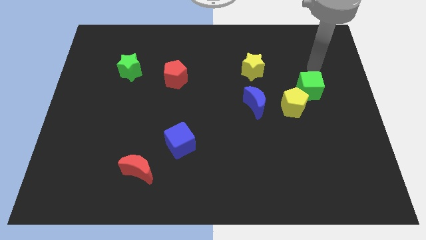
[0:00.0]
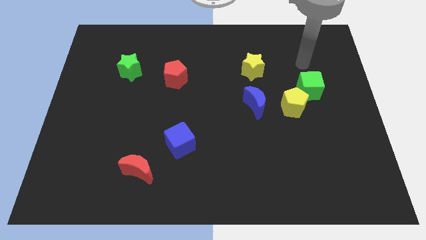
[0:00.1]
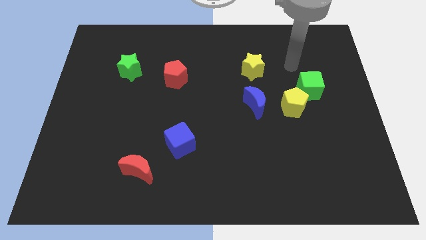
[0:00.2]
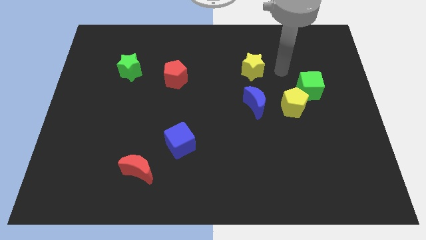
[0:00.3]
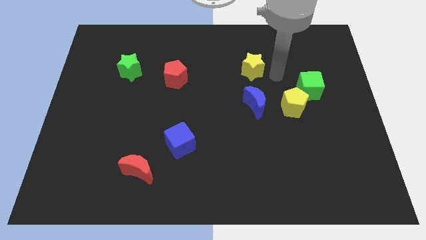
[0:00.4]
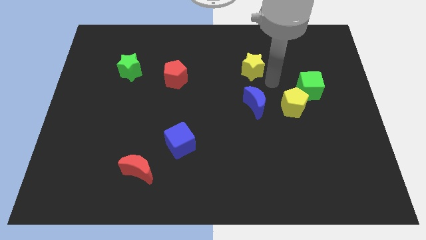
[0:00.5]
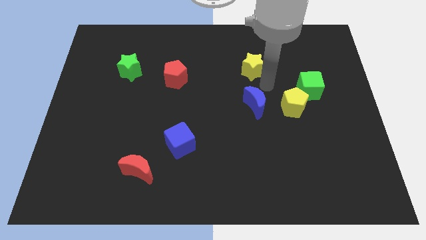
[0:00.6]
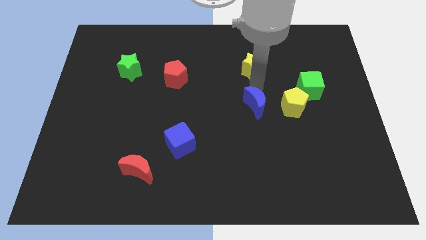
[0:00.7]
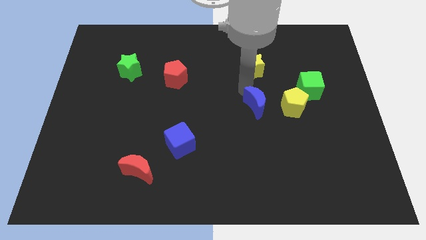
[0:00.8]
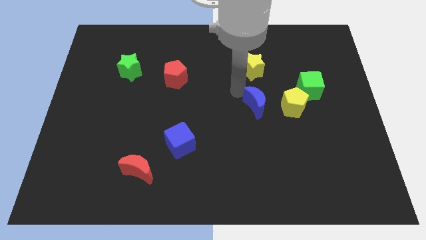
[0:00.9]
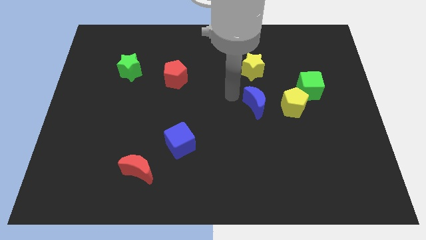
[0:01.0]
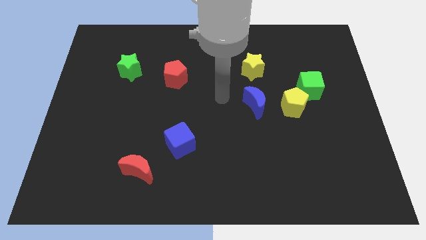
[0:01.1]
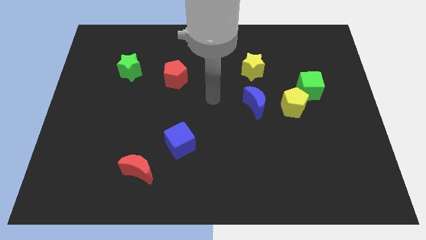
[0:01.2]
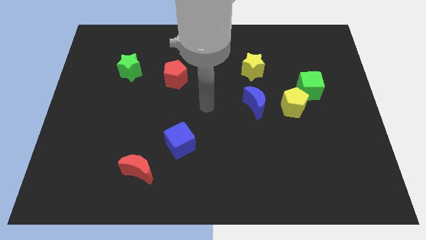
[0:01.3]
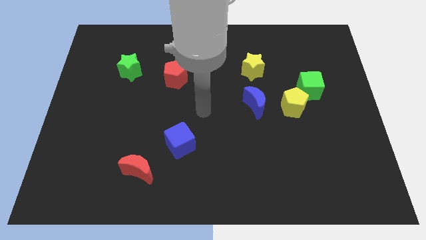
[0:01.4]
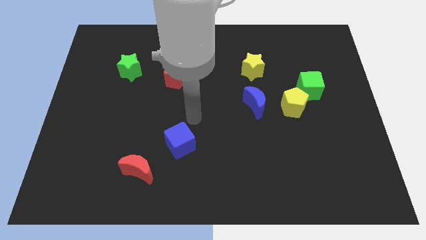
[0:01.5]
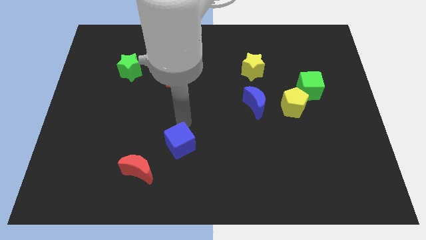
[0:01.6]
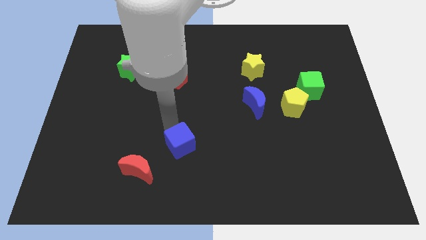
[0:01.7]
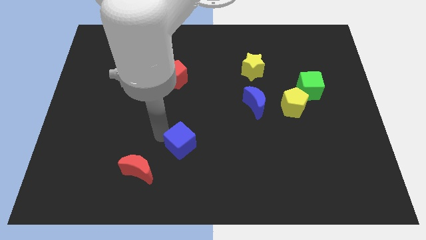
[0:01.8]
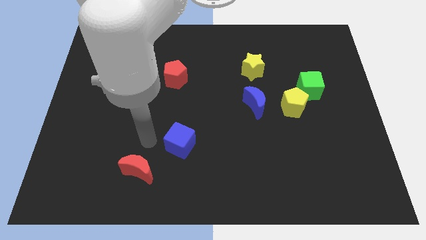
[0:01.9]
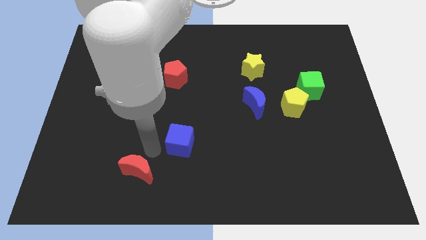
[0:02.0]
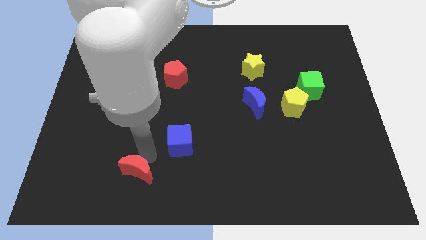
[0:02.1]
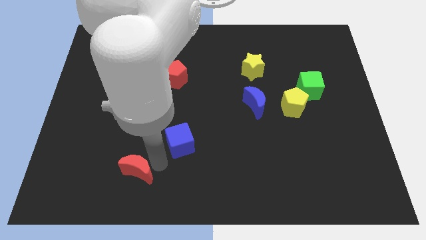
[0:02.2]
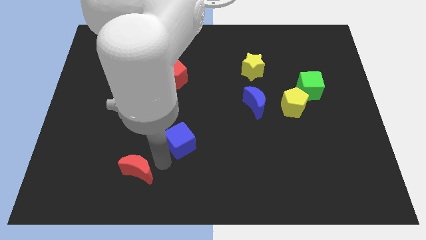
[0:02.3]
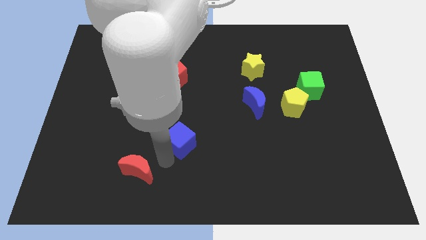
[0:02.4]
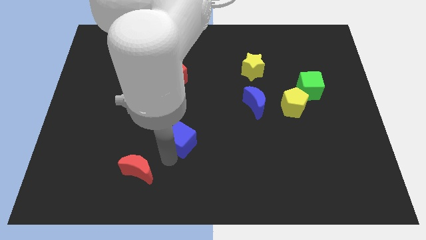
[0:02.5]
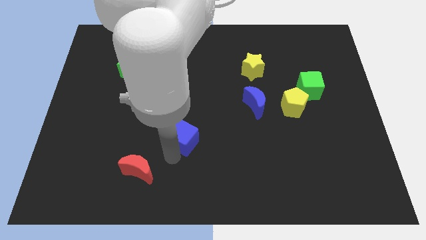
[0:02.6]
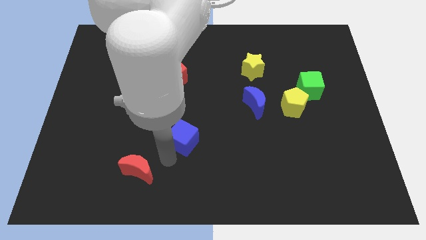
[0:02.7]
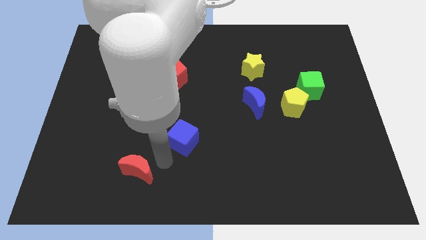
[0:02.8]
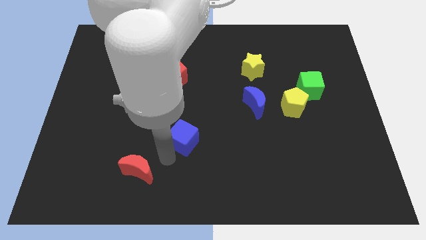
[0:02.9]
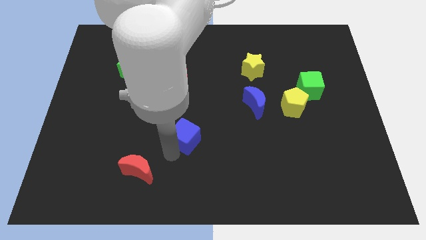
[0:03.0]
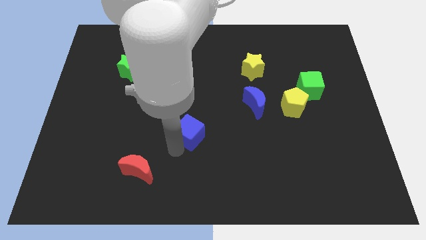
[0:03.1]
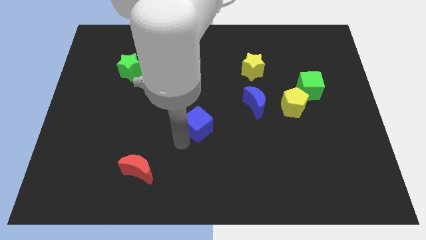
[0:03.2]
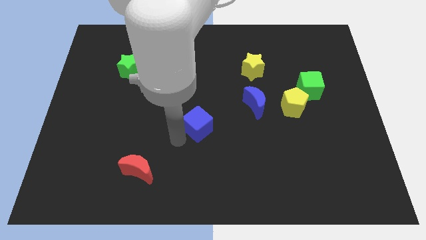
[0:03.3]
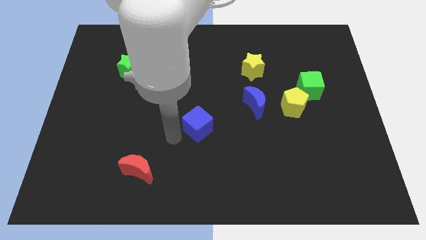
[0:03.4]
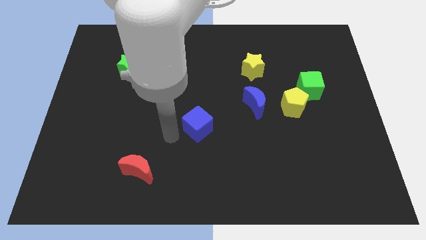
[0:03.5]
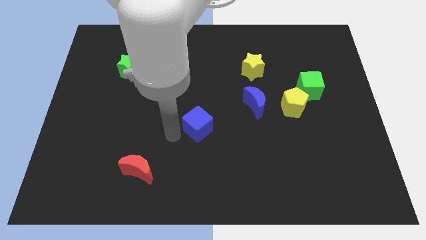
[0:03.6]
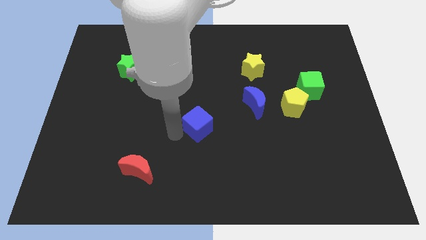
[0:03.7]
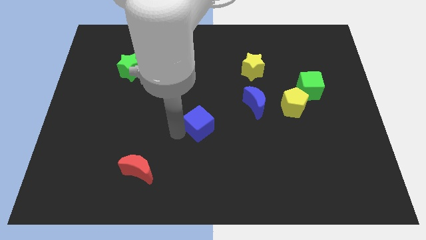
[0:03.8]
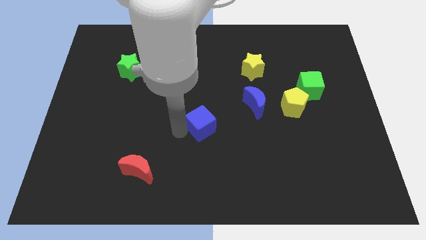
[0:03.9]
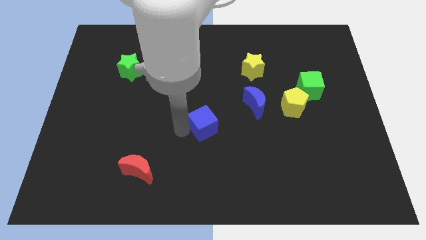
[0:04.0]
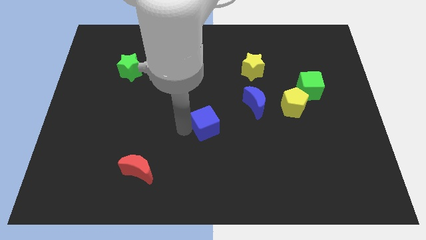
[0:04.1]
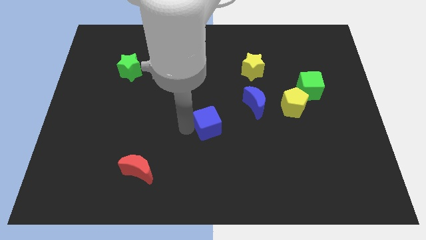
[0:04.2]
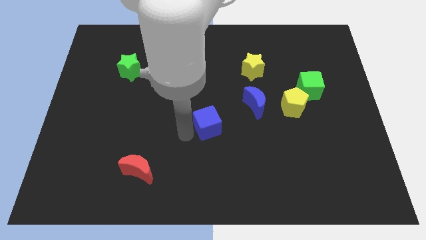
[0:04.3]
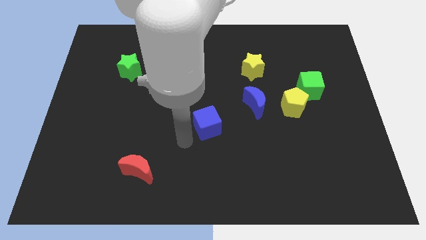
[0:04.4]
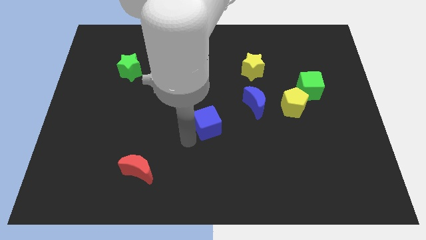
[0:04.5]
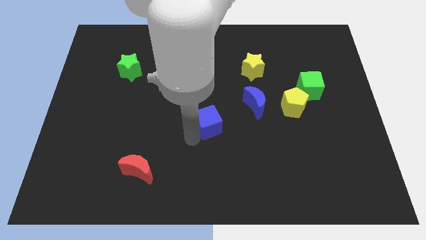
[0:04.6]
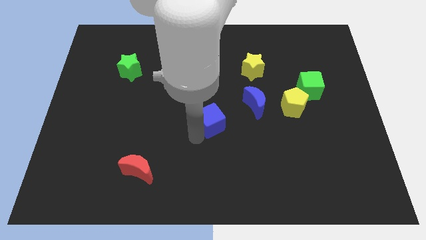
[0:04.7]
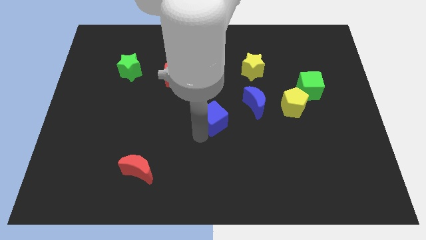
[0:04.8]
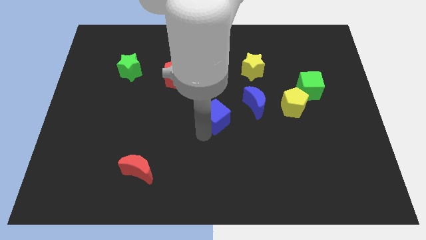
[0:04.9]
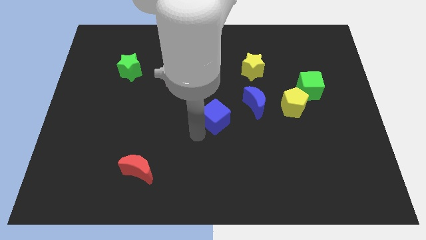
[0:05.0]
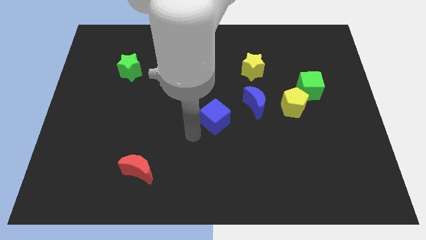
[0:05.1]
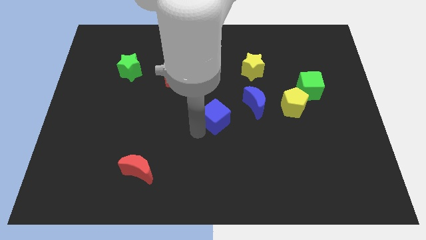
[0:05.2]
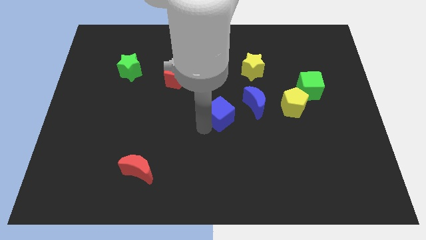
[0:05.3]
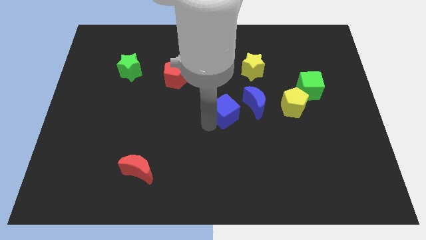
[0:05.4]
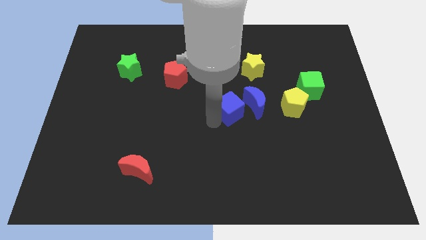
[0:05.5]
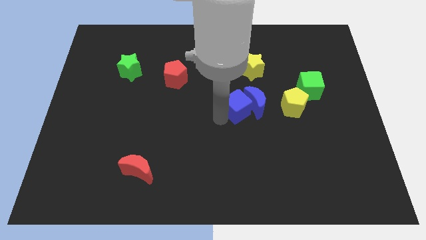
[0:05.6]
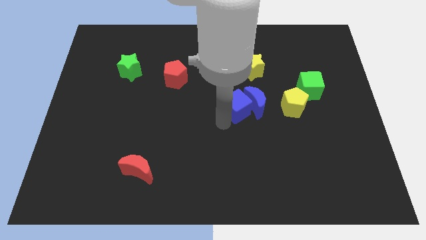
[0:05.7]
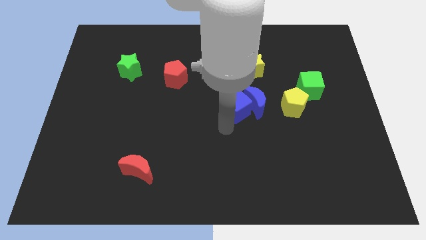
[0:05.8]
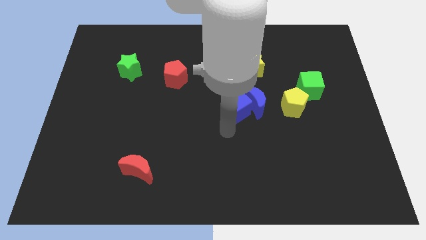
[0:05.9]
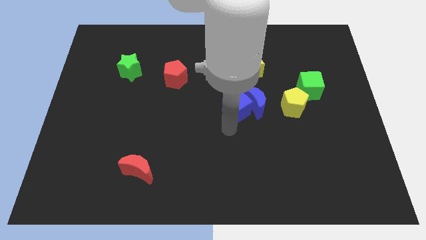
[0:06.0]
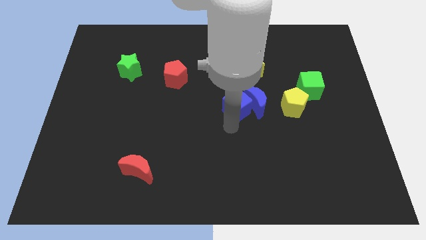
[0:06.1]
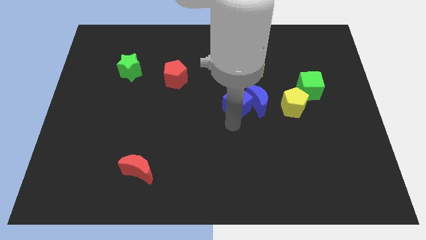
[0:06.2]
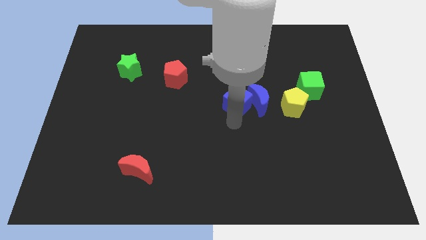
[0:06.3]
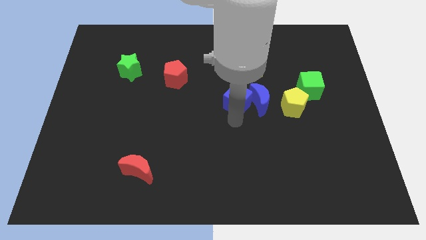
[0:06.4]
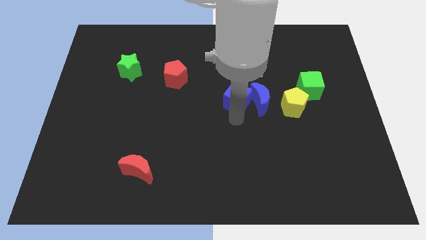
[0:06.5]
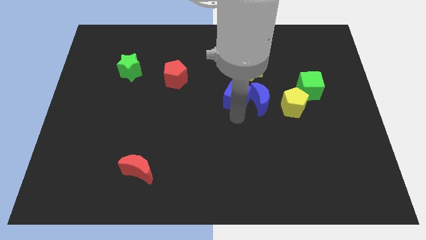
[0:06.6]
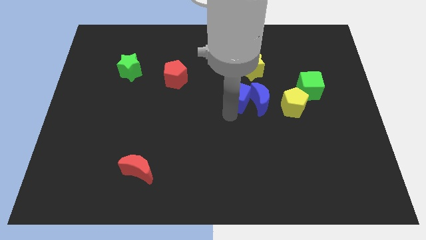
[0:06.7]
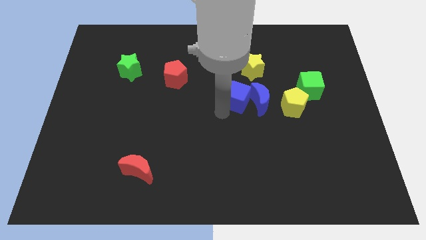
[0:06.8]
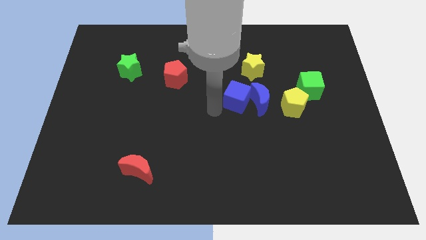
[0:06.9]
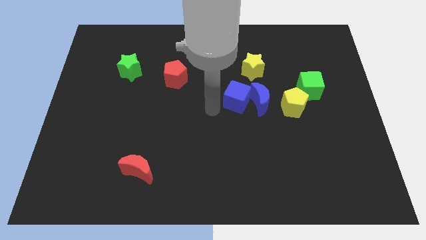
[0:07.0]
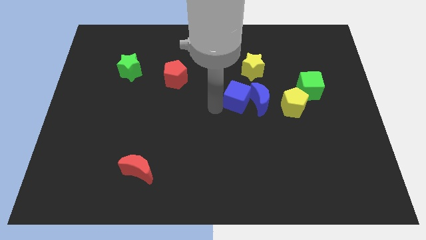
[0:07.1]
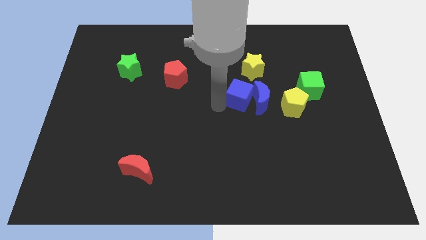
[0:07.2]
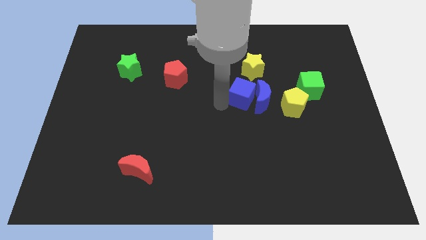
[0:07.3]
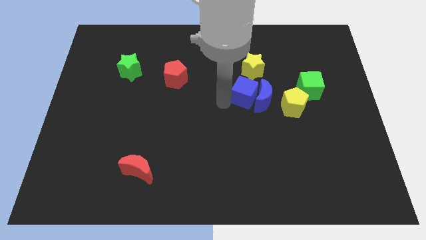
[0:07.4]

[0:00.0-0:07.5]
push the blue cube to the left of the green cube
